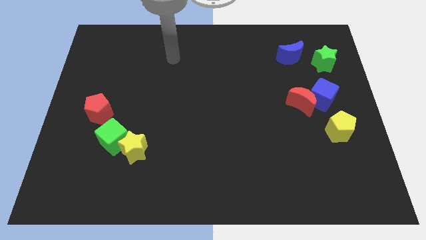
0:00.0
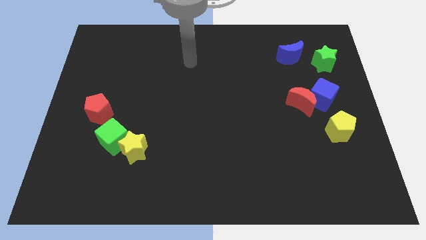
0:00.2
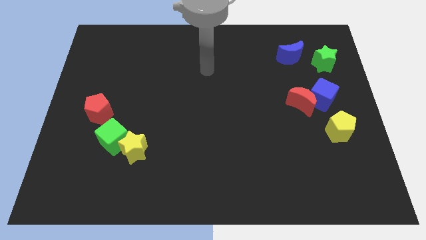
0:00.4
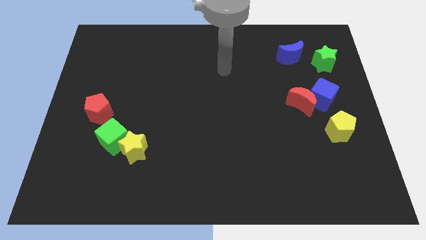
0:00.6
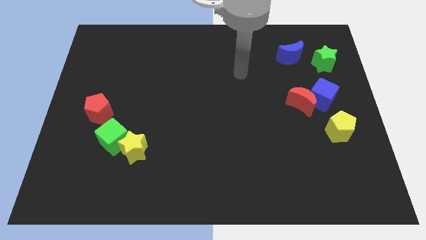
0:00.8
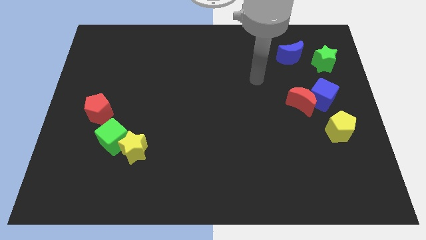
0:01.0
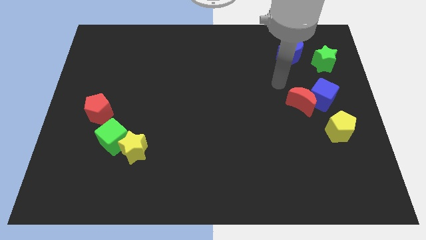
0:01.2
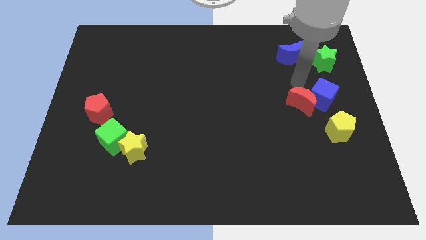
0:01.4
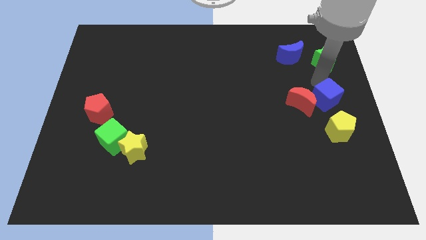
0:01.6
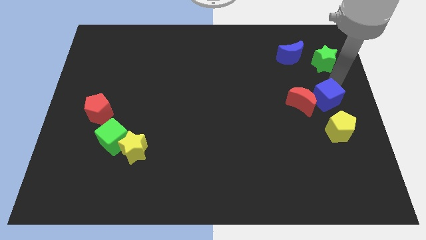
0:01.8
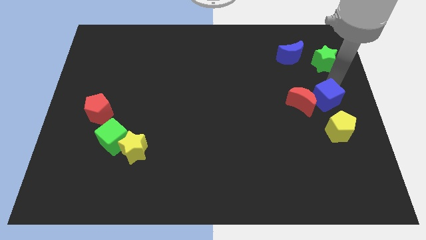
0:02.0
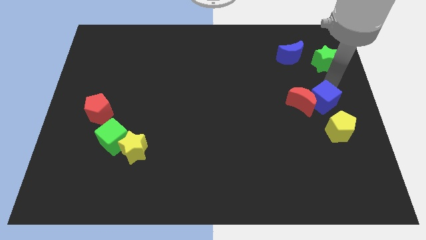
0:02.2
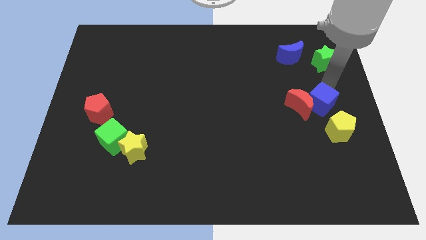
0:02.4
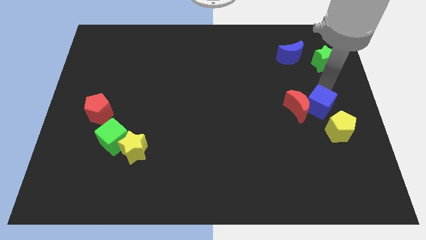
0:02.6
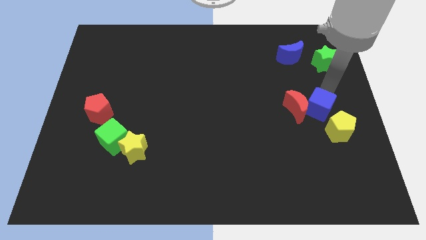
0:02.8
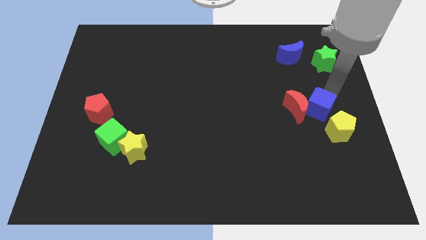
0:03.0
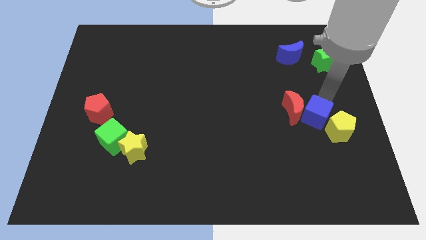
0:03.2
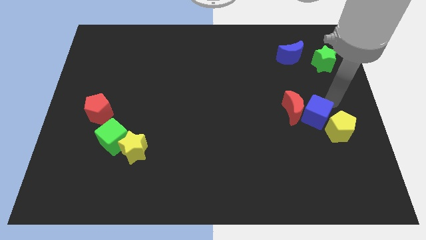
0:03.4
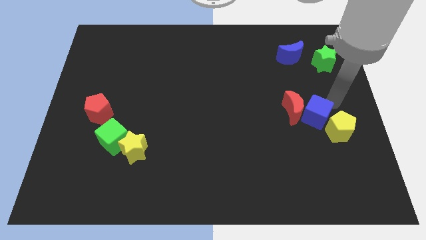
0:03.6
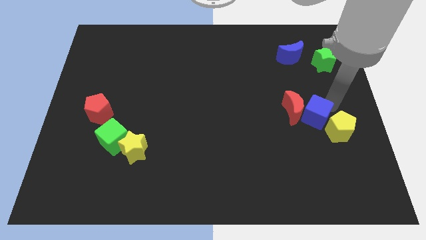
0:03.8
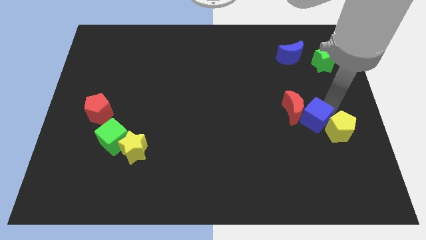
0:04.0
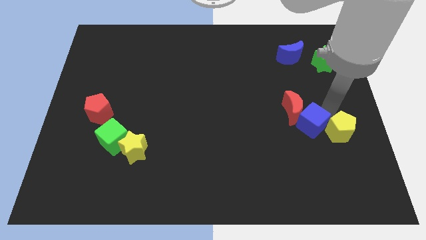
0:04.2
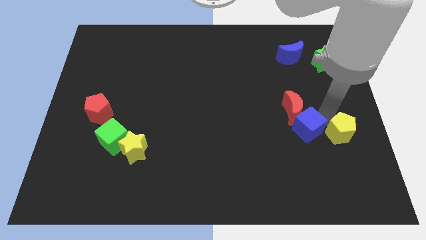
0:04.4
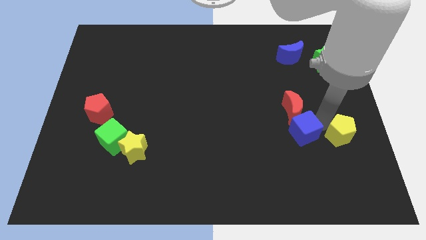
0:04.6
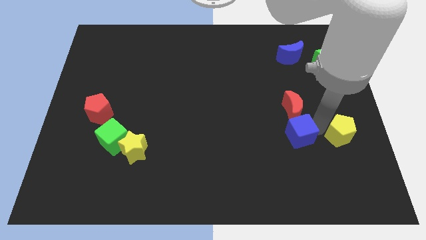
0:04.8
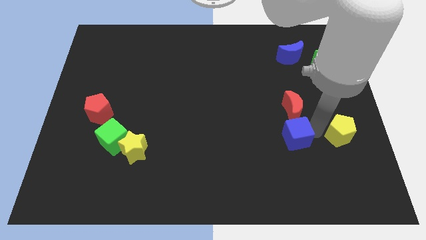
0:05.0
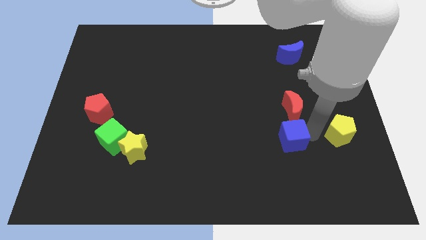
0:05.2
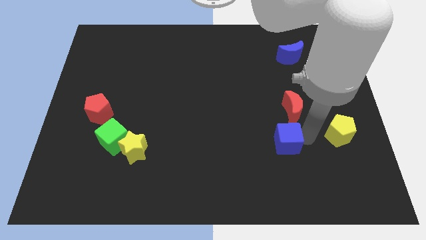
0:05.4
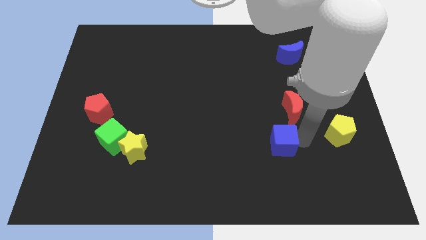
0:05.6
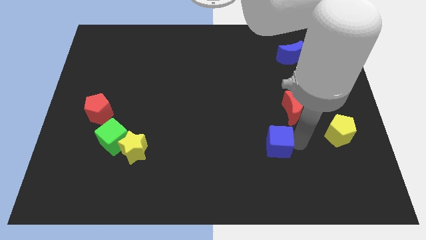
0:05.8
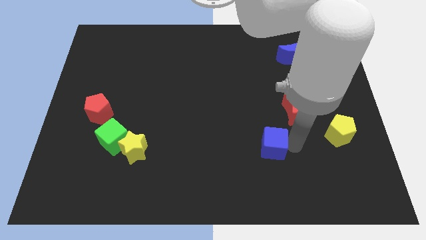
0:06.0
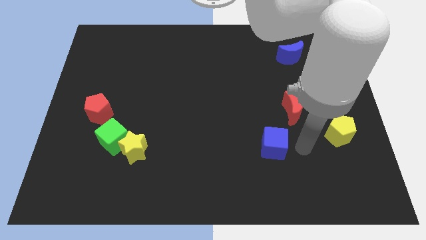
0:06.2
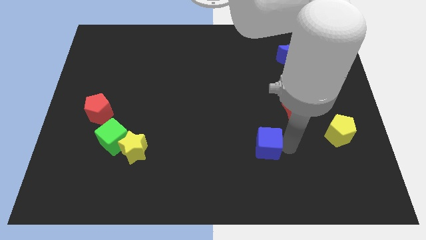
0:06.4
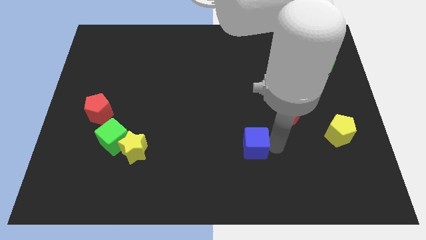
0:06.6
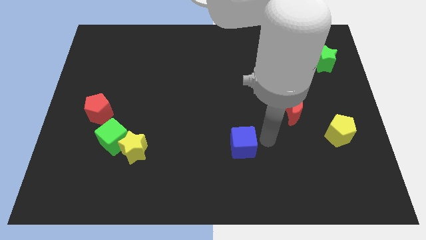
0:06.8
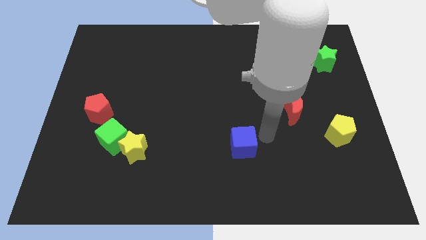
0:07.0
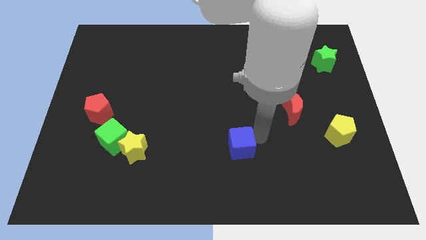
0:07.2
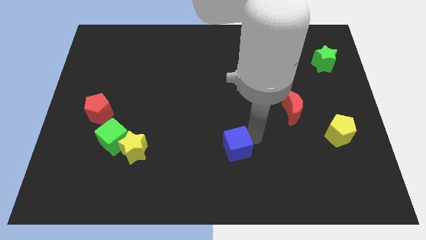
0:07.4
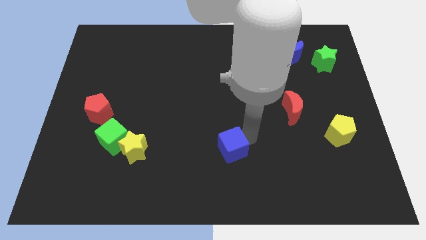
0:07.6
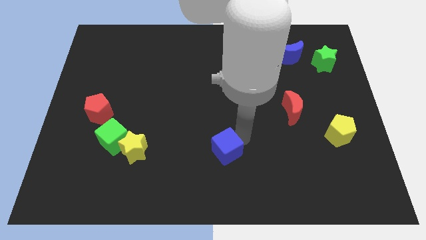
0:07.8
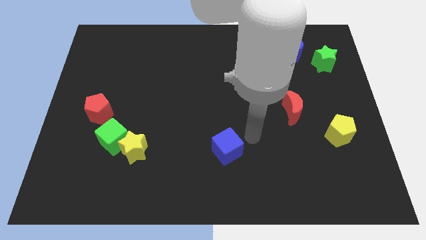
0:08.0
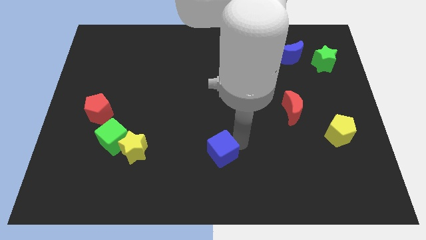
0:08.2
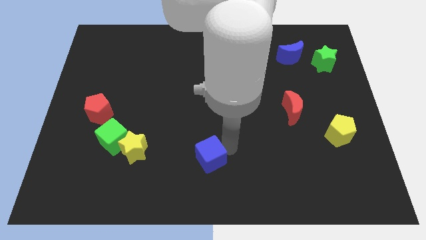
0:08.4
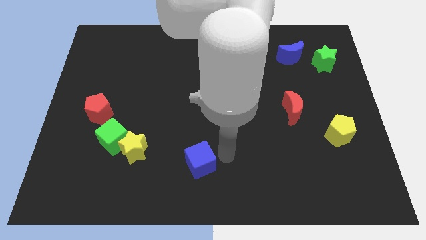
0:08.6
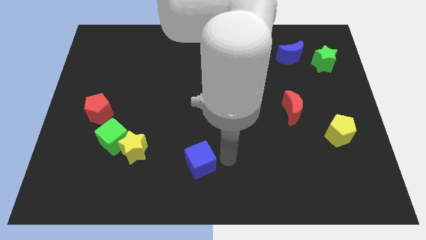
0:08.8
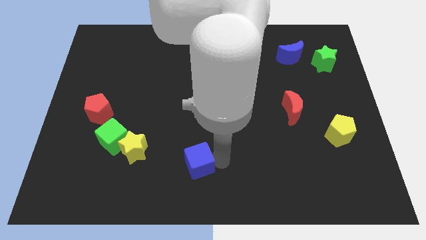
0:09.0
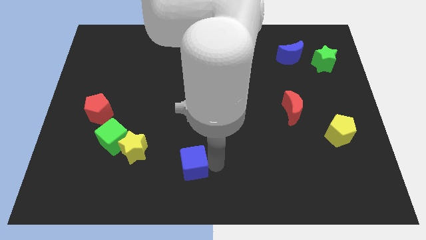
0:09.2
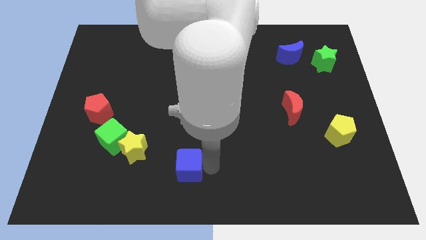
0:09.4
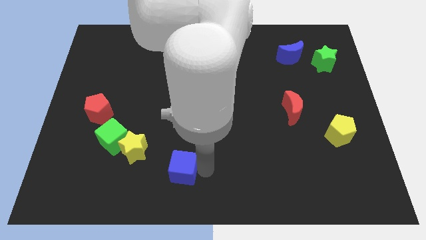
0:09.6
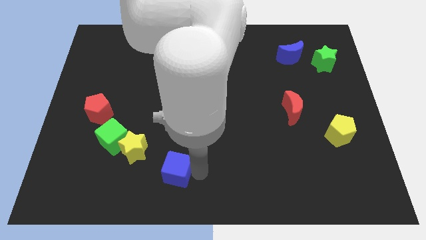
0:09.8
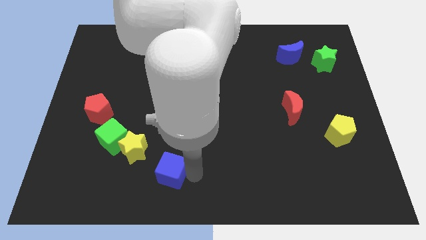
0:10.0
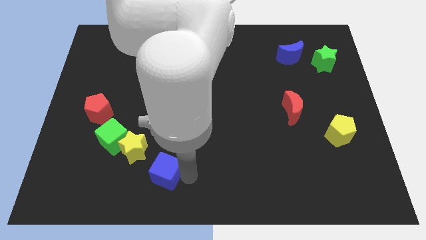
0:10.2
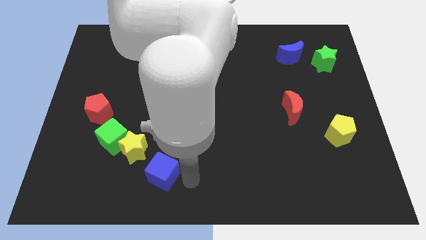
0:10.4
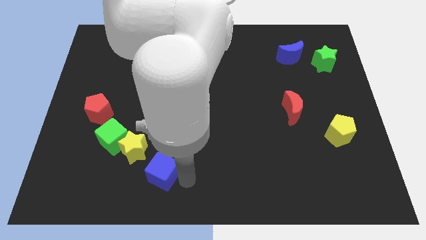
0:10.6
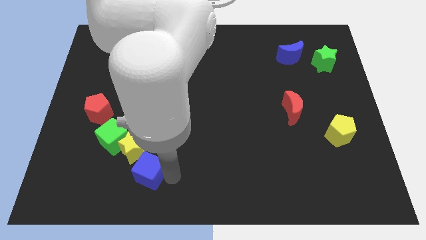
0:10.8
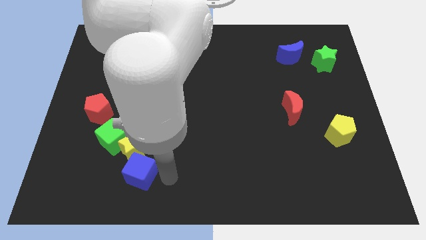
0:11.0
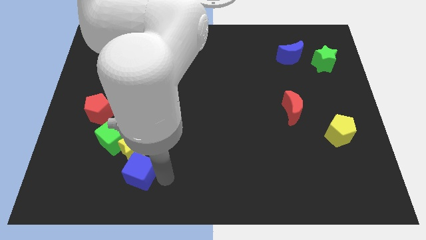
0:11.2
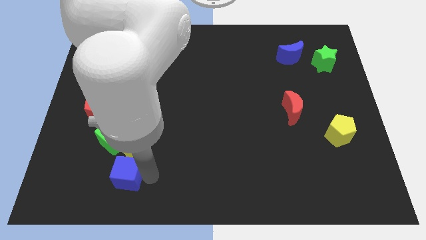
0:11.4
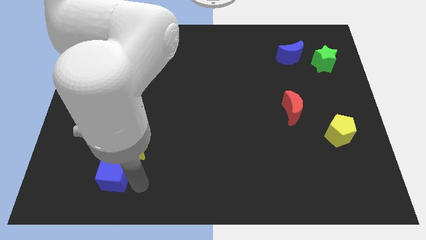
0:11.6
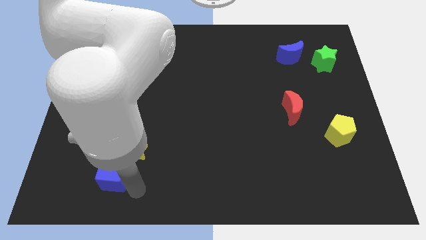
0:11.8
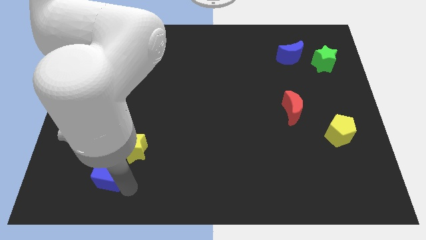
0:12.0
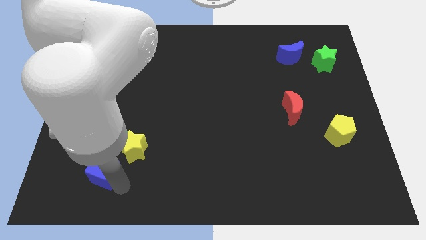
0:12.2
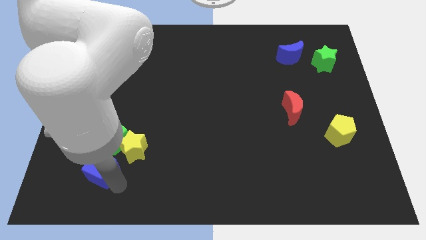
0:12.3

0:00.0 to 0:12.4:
move the blue cube to the bottom left side of the green cube

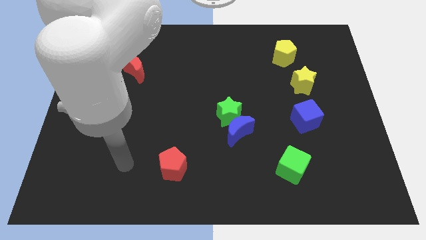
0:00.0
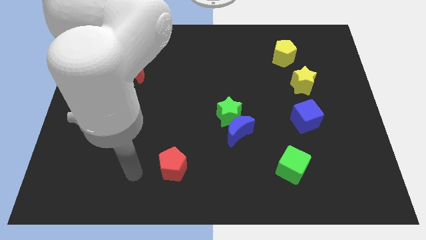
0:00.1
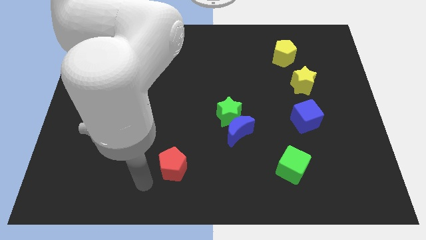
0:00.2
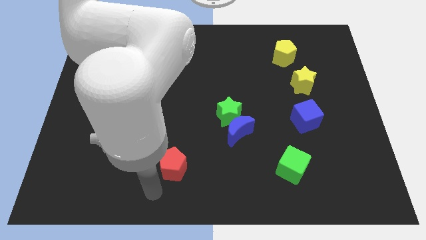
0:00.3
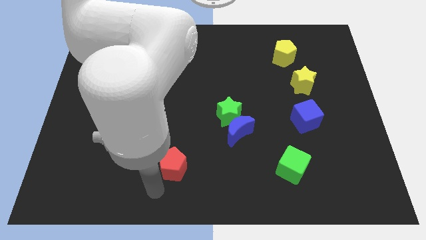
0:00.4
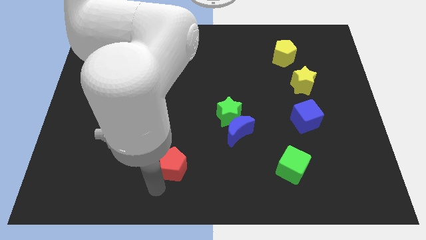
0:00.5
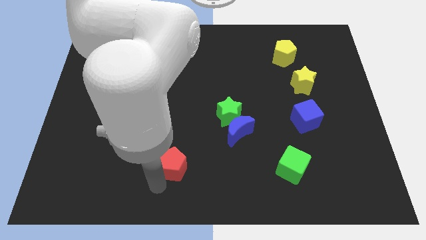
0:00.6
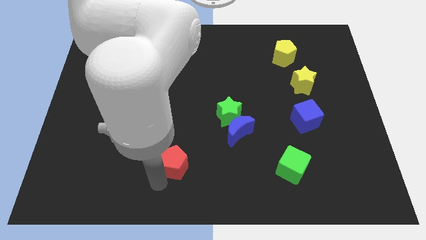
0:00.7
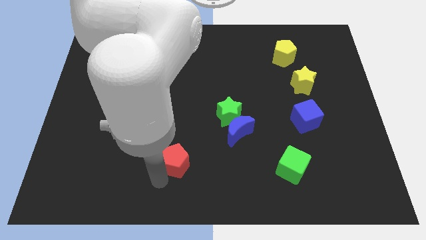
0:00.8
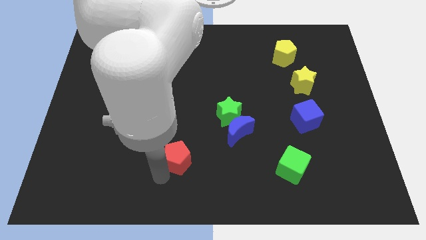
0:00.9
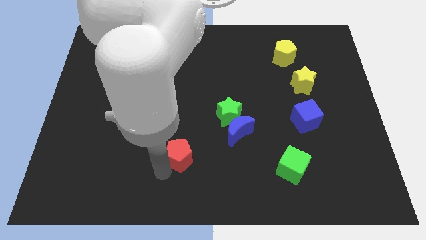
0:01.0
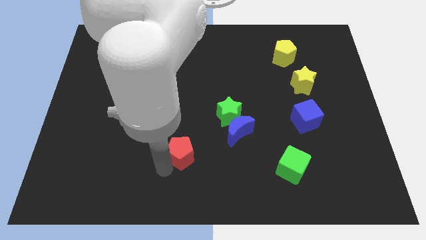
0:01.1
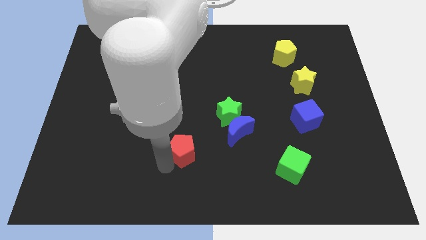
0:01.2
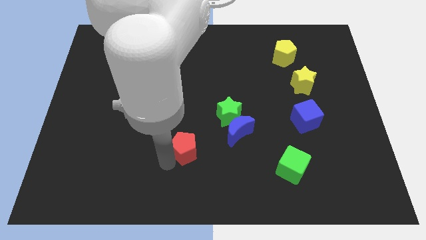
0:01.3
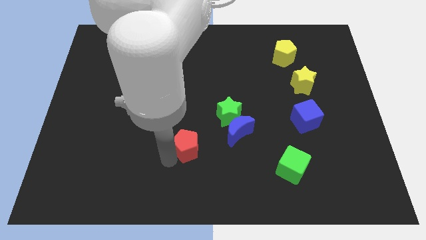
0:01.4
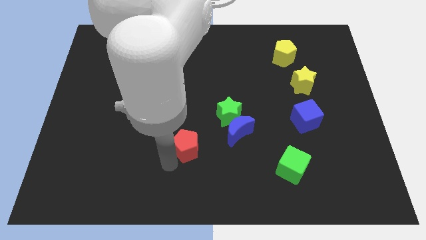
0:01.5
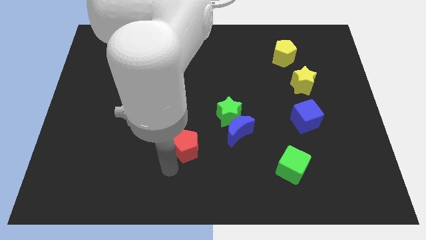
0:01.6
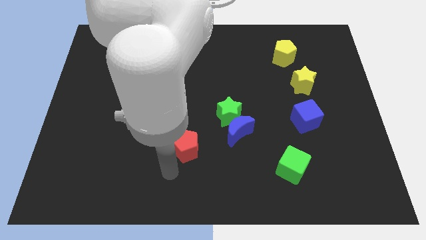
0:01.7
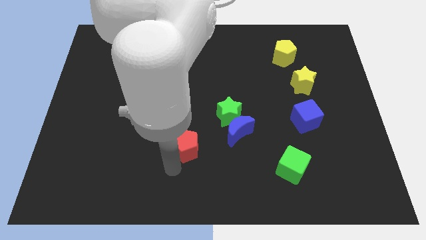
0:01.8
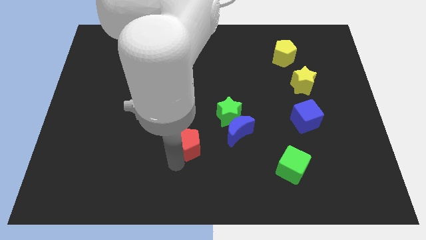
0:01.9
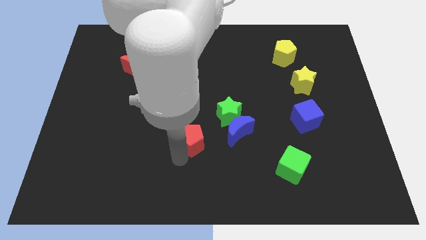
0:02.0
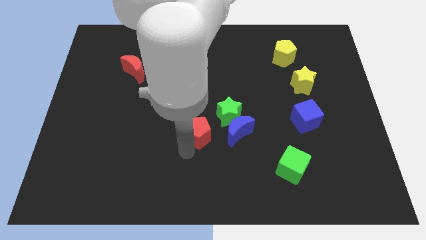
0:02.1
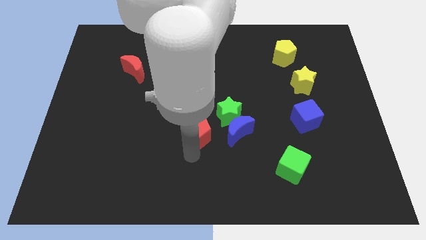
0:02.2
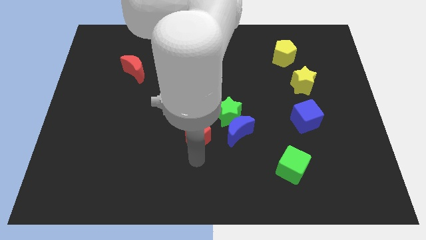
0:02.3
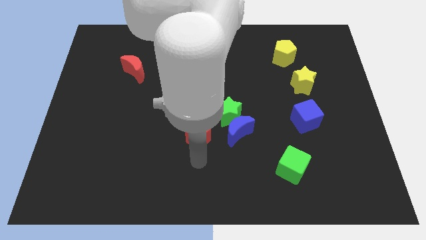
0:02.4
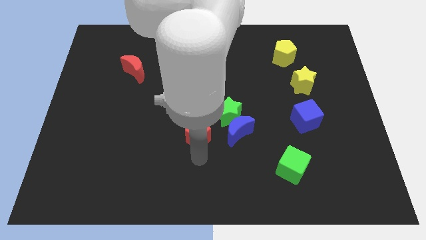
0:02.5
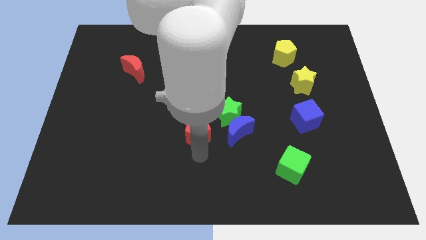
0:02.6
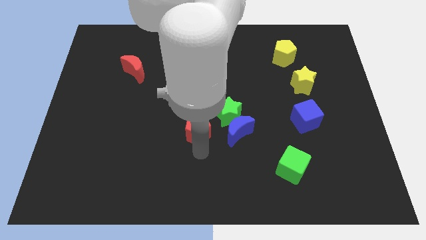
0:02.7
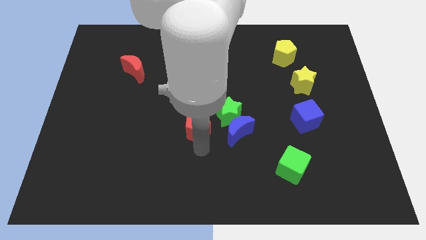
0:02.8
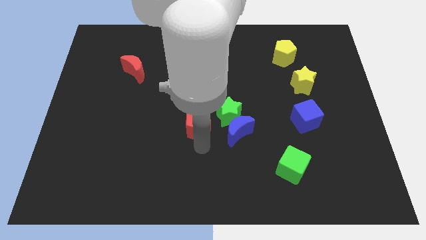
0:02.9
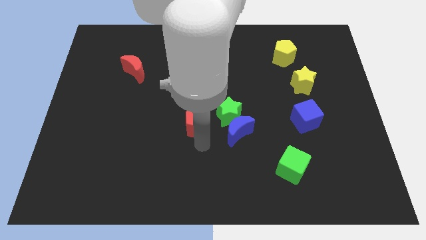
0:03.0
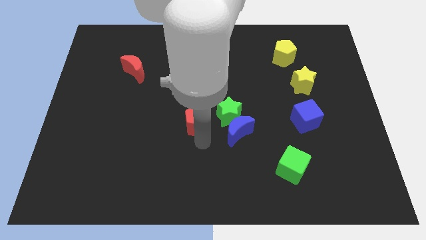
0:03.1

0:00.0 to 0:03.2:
put the red pentagon to the top left of the blue moon
